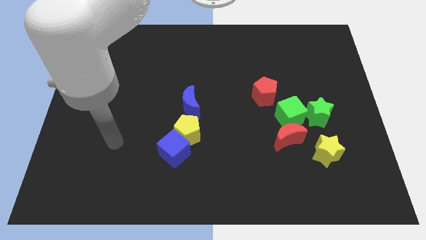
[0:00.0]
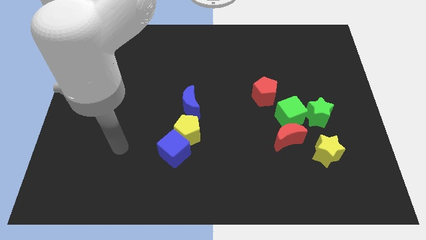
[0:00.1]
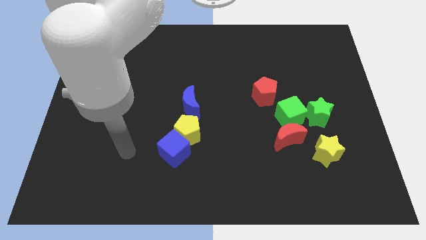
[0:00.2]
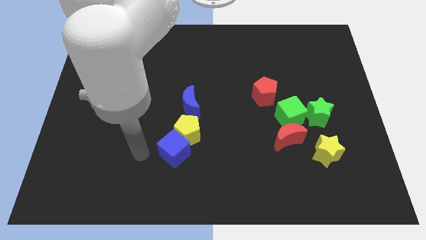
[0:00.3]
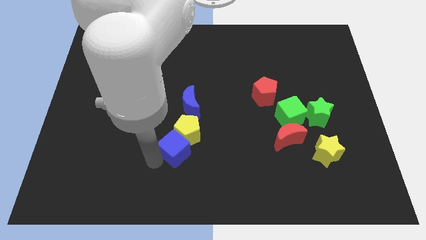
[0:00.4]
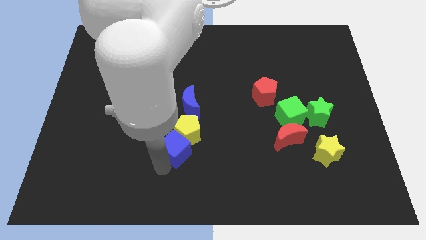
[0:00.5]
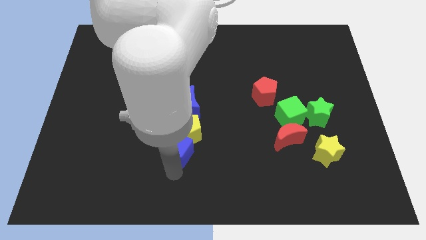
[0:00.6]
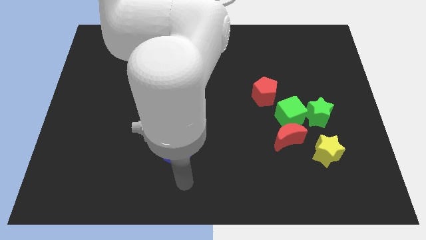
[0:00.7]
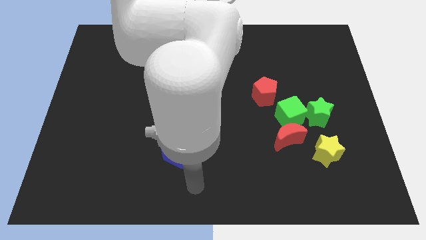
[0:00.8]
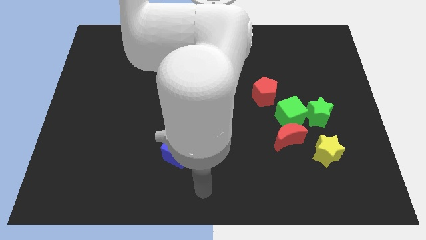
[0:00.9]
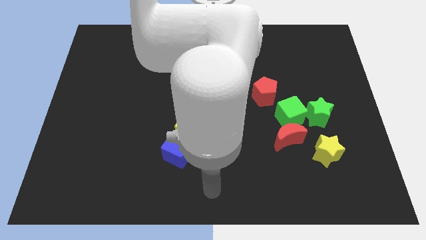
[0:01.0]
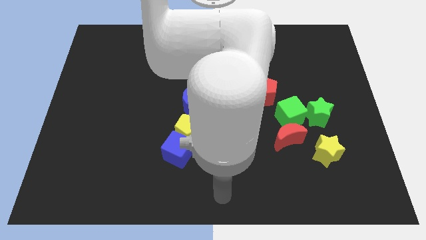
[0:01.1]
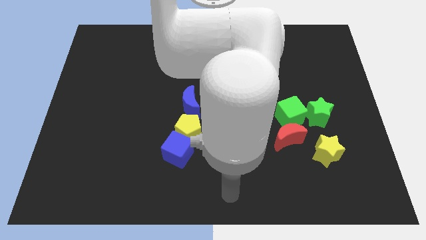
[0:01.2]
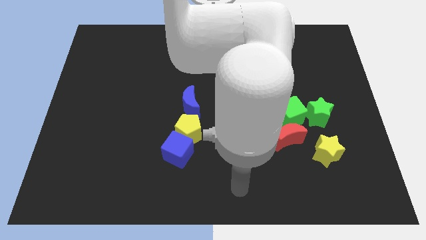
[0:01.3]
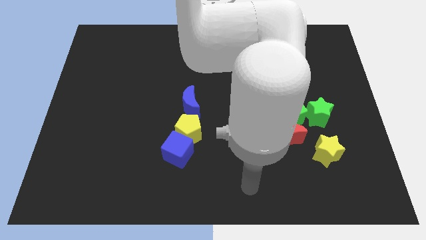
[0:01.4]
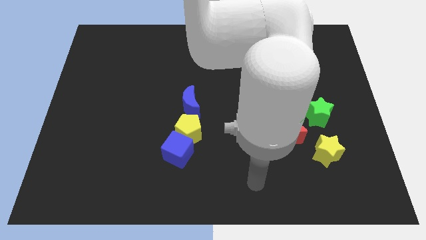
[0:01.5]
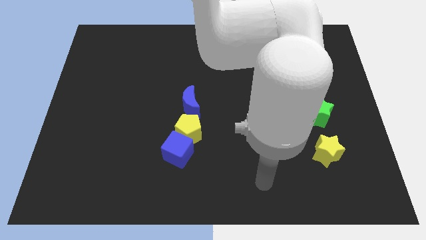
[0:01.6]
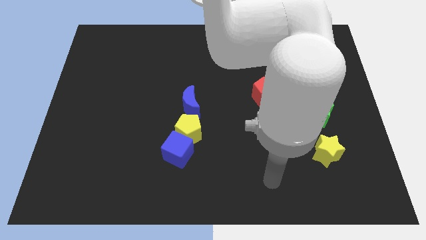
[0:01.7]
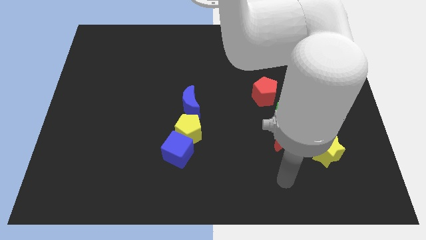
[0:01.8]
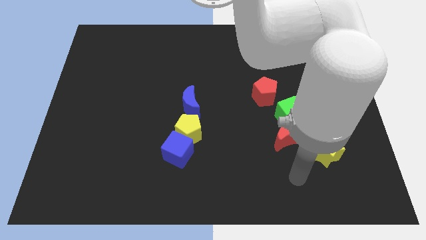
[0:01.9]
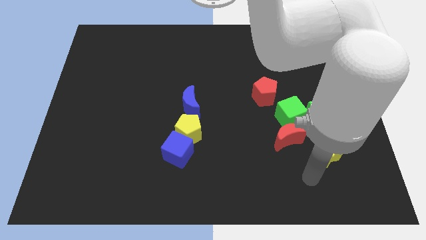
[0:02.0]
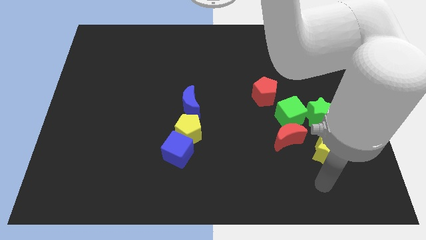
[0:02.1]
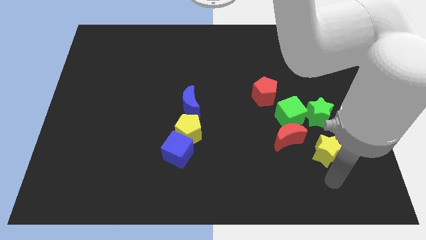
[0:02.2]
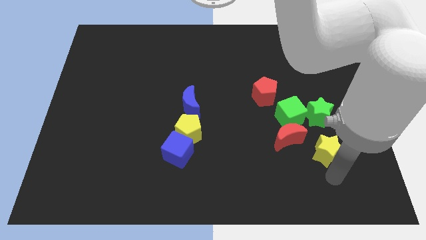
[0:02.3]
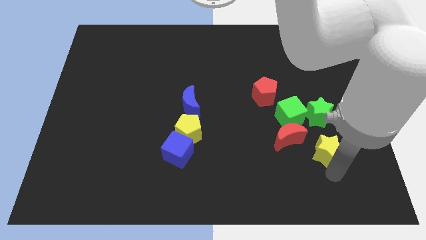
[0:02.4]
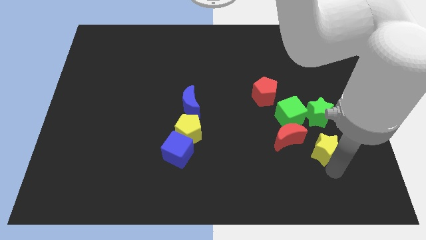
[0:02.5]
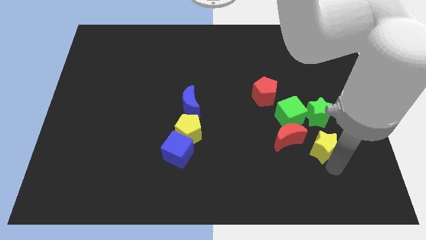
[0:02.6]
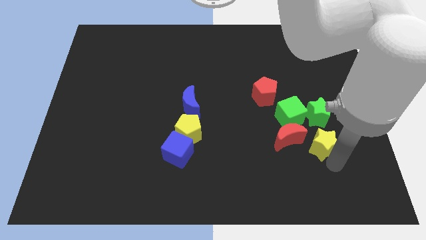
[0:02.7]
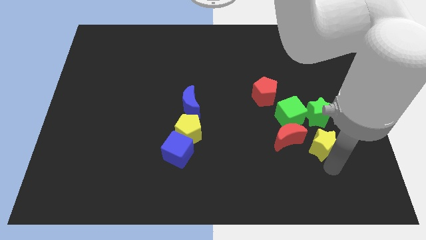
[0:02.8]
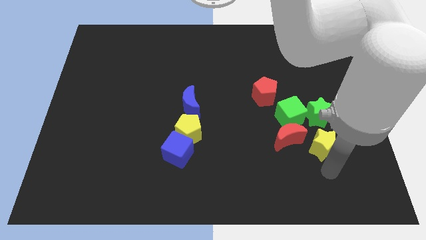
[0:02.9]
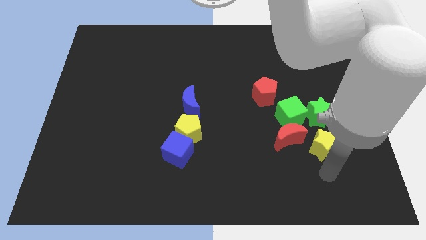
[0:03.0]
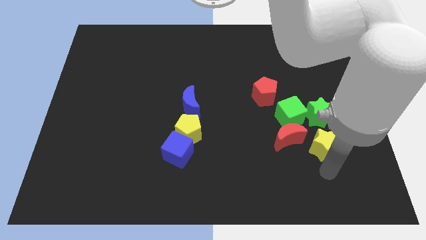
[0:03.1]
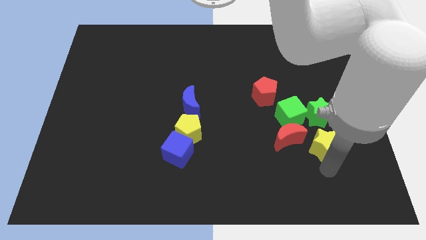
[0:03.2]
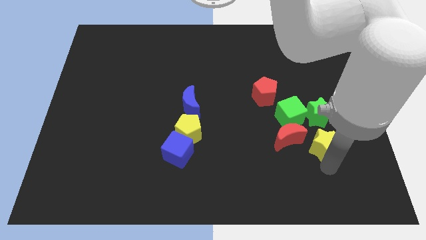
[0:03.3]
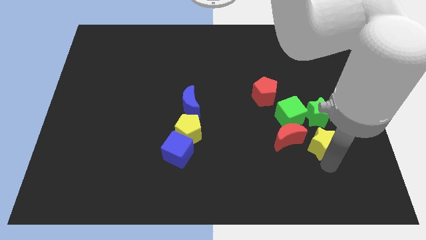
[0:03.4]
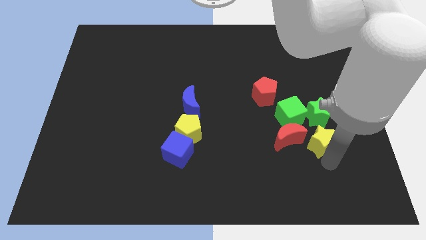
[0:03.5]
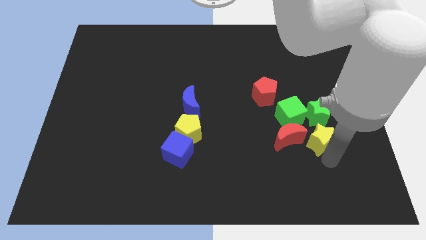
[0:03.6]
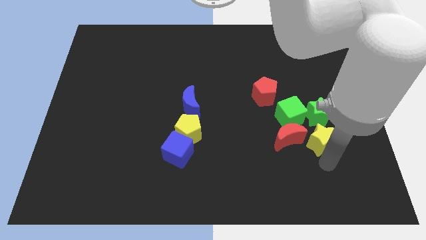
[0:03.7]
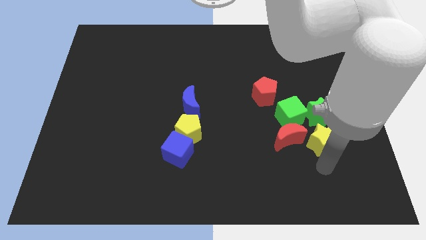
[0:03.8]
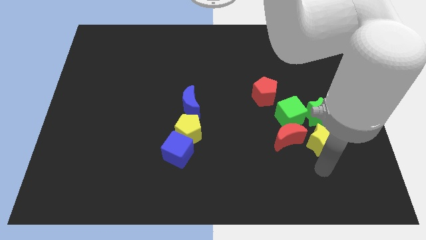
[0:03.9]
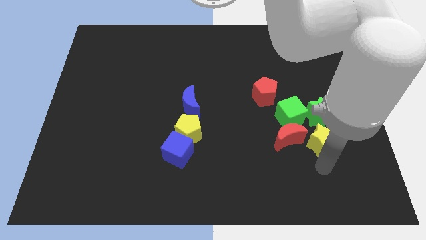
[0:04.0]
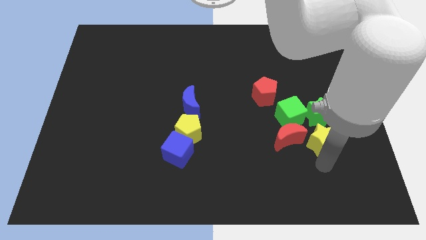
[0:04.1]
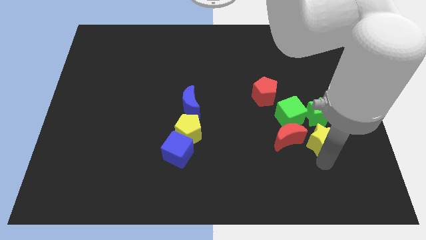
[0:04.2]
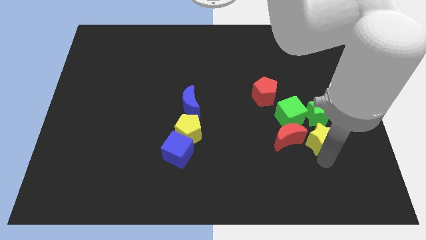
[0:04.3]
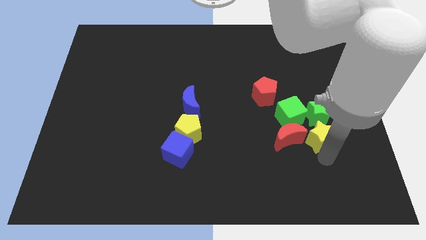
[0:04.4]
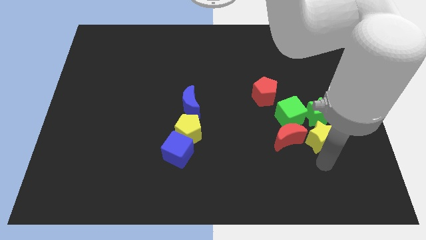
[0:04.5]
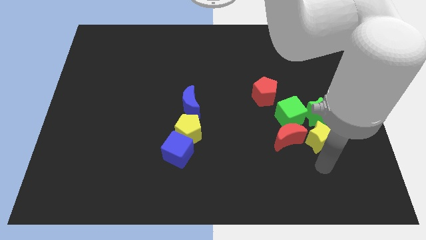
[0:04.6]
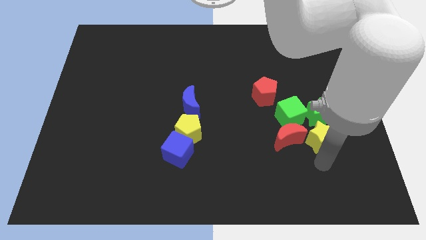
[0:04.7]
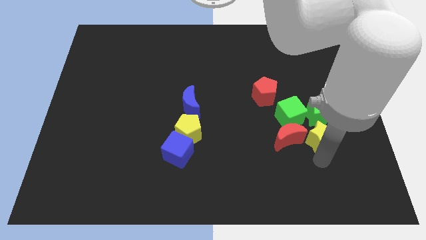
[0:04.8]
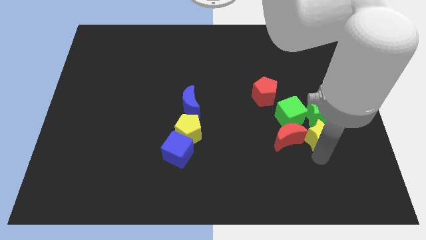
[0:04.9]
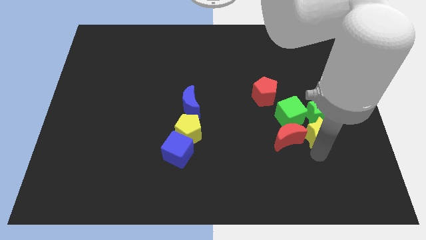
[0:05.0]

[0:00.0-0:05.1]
put the yellow star next to the green star

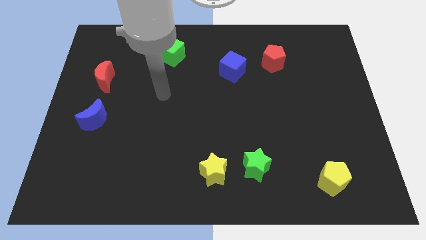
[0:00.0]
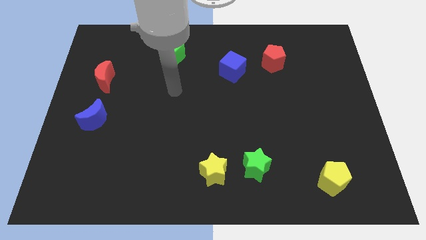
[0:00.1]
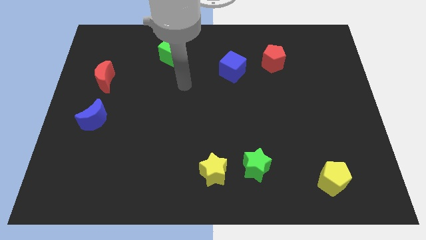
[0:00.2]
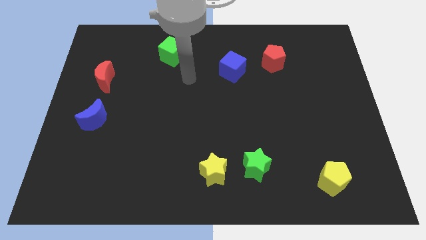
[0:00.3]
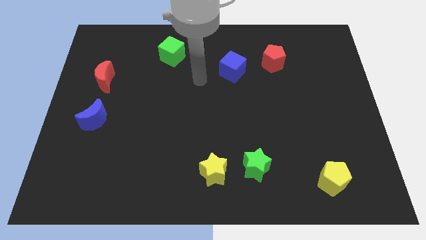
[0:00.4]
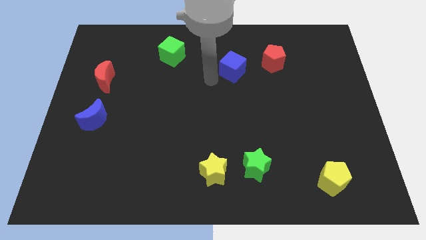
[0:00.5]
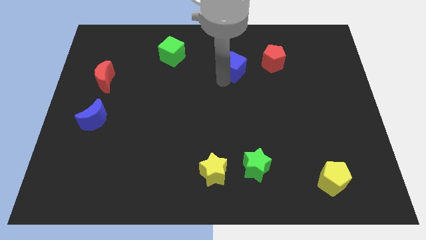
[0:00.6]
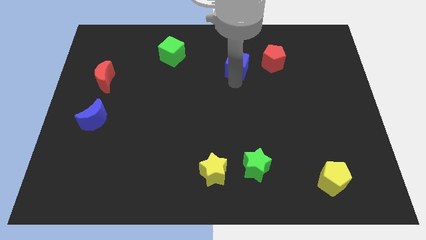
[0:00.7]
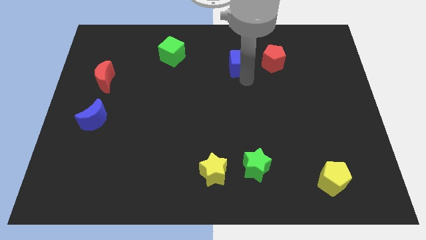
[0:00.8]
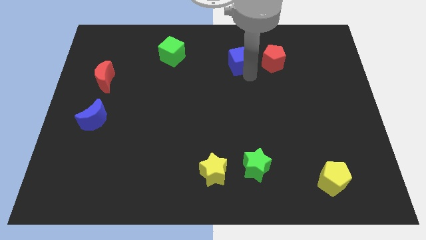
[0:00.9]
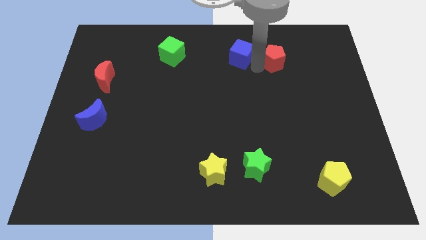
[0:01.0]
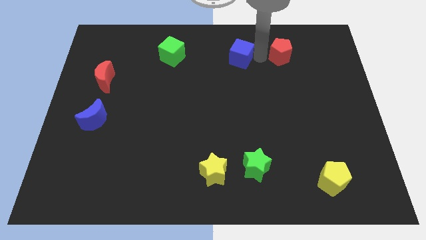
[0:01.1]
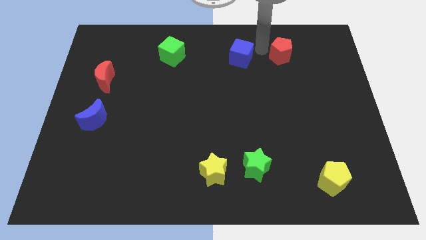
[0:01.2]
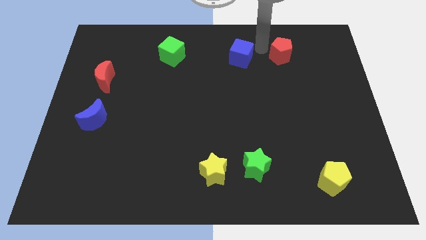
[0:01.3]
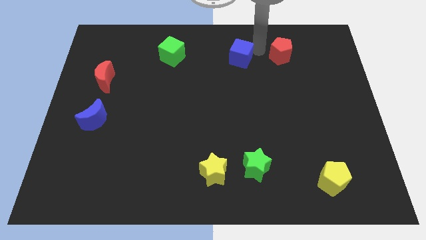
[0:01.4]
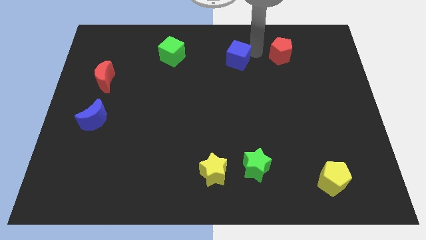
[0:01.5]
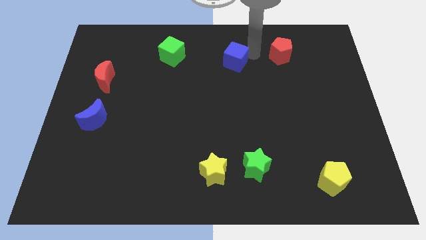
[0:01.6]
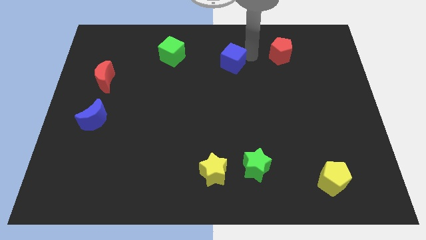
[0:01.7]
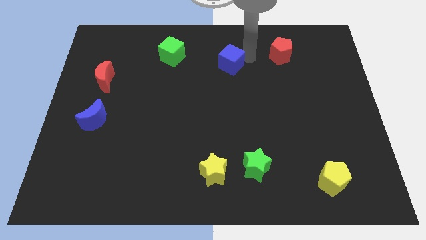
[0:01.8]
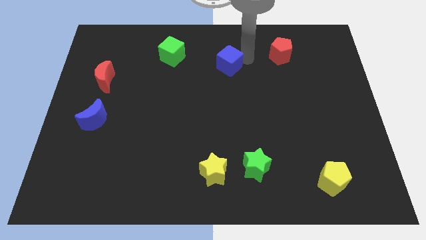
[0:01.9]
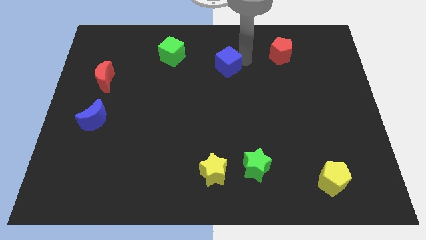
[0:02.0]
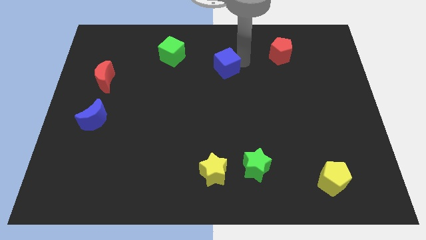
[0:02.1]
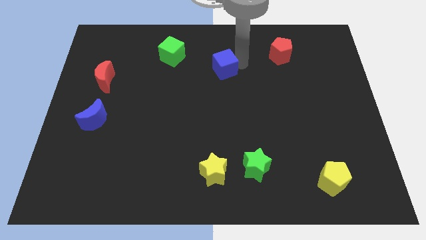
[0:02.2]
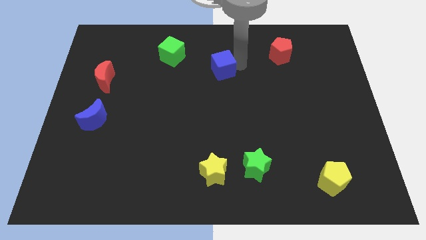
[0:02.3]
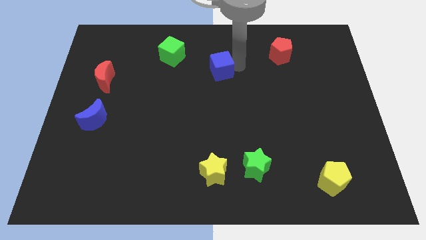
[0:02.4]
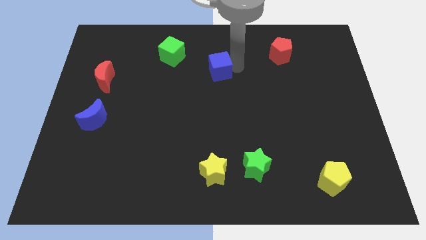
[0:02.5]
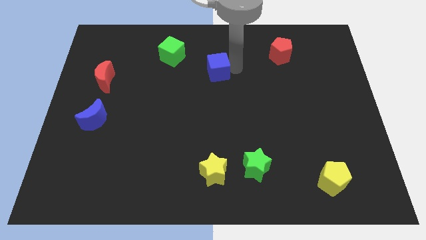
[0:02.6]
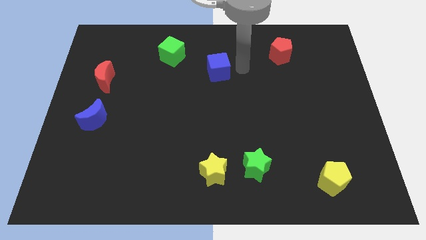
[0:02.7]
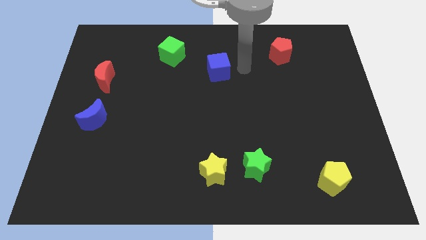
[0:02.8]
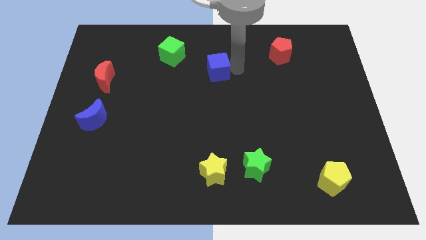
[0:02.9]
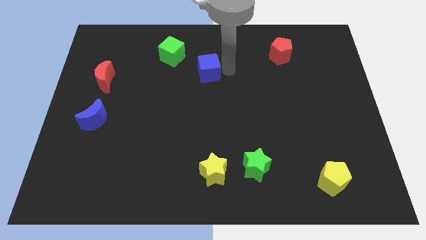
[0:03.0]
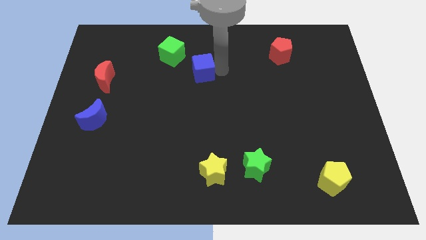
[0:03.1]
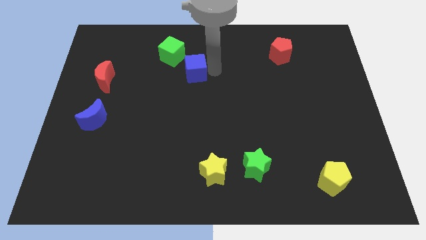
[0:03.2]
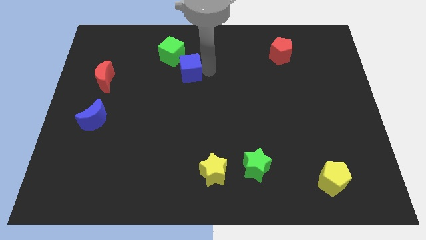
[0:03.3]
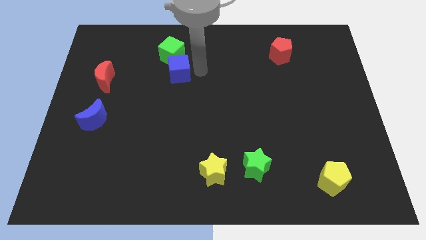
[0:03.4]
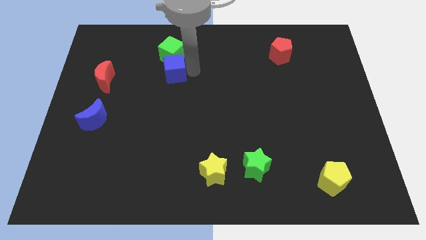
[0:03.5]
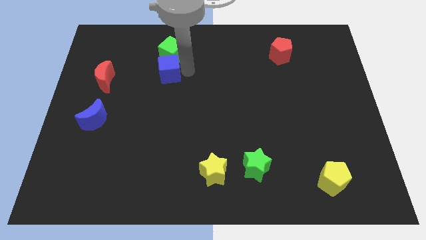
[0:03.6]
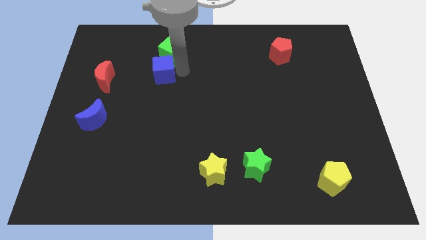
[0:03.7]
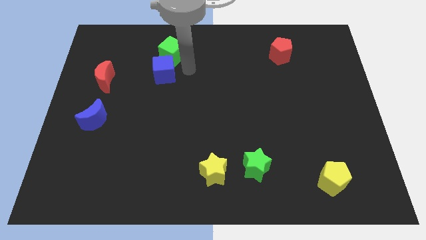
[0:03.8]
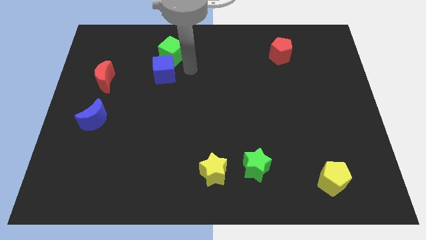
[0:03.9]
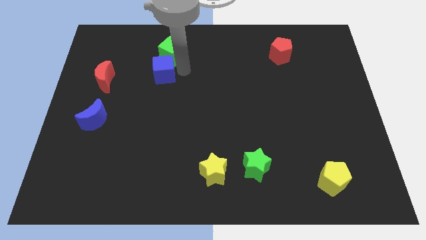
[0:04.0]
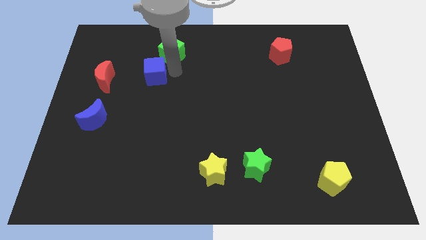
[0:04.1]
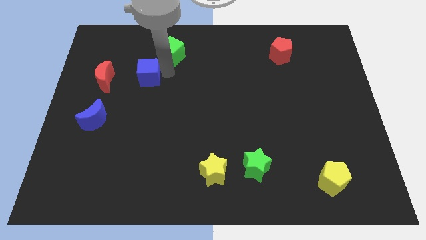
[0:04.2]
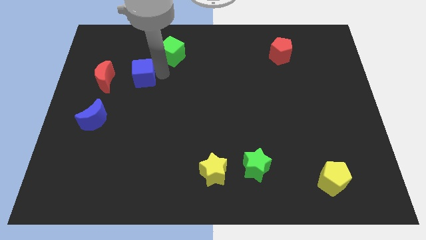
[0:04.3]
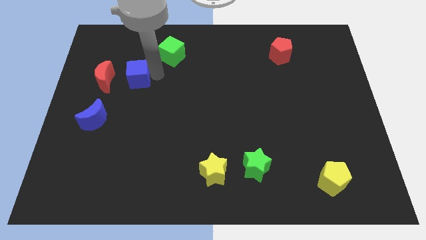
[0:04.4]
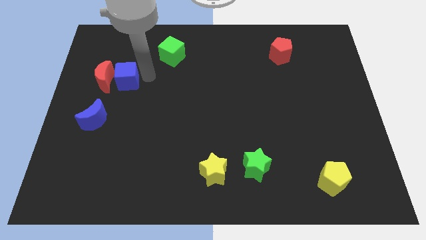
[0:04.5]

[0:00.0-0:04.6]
move the blue cube next to the red moon
